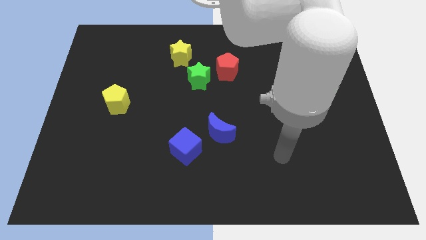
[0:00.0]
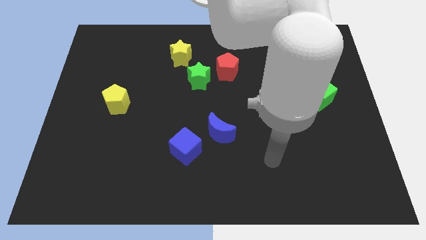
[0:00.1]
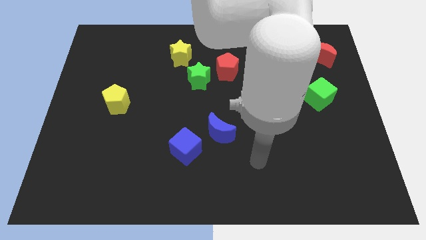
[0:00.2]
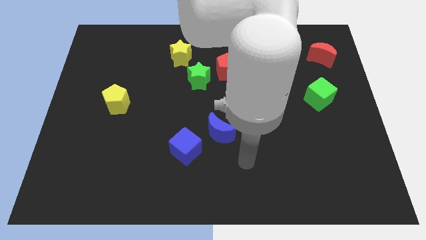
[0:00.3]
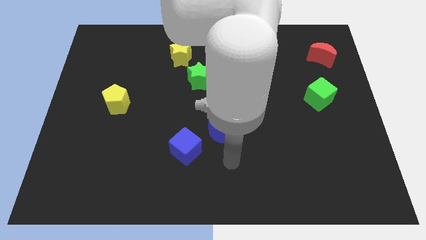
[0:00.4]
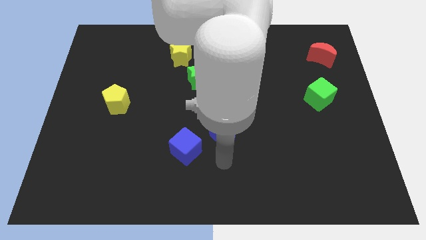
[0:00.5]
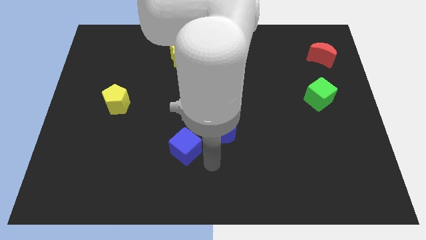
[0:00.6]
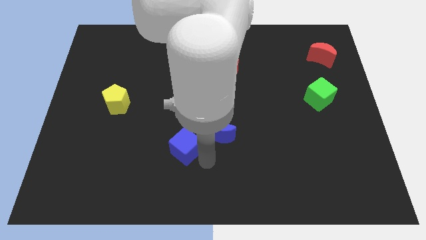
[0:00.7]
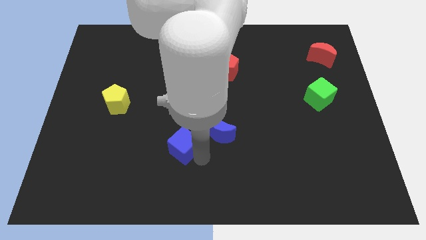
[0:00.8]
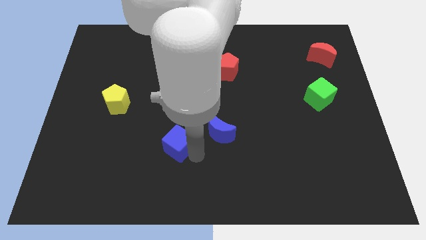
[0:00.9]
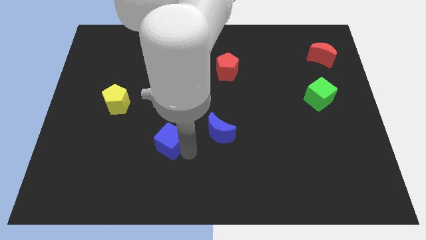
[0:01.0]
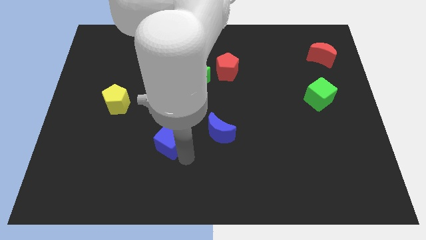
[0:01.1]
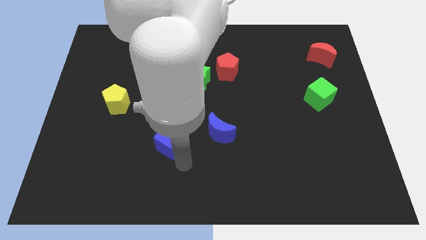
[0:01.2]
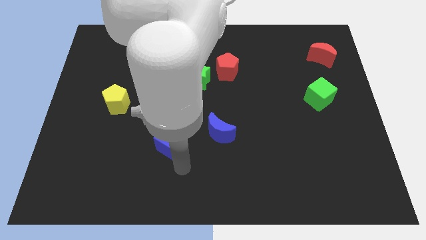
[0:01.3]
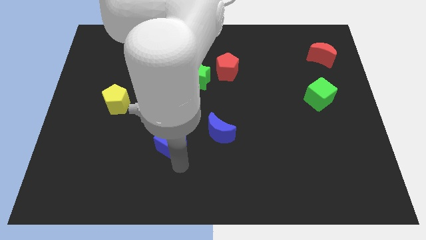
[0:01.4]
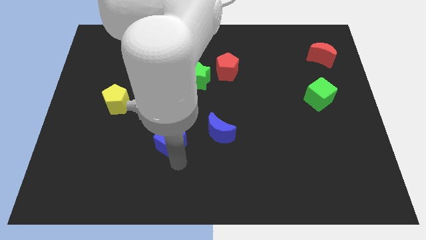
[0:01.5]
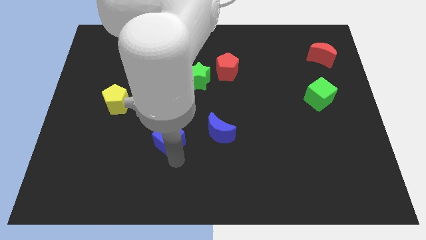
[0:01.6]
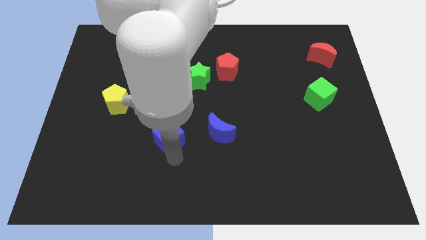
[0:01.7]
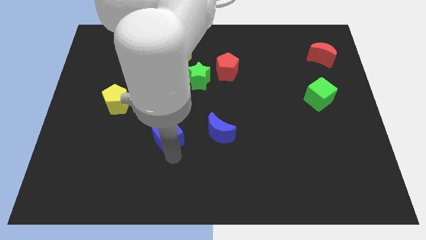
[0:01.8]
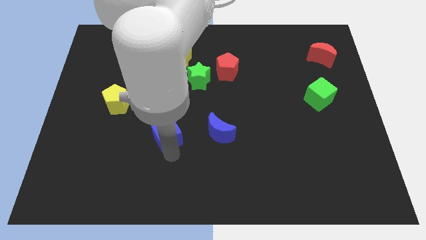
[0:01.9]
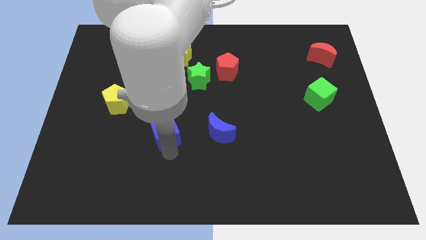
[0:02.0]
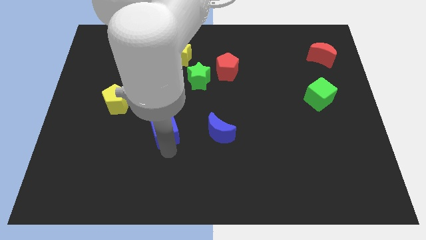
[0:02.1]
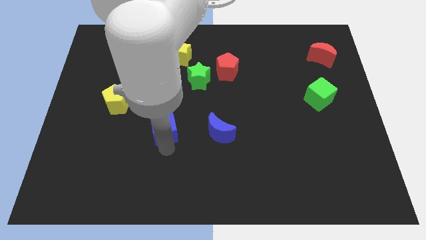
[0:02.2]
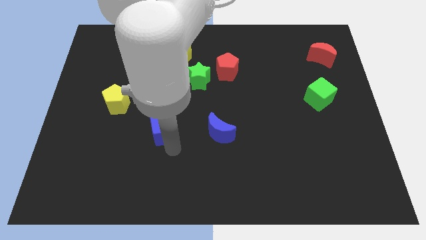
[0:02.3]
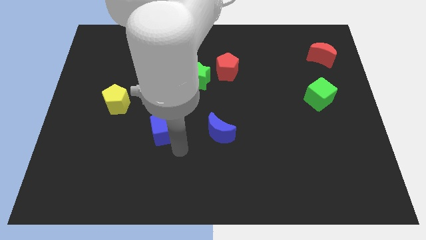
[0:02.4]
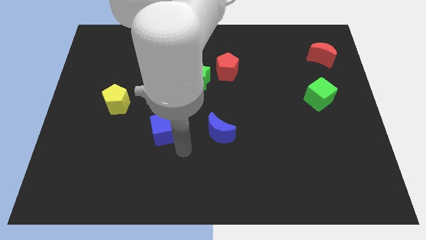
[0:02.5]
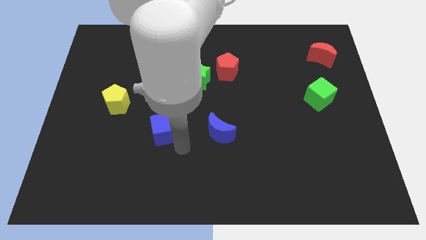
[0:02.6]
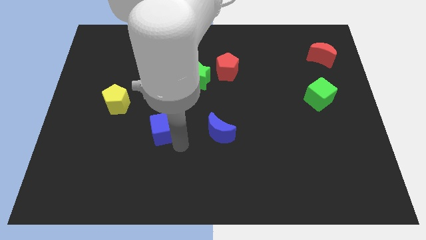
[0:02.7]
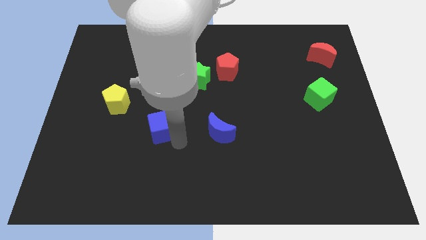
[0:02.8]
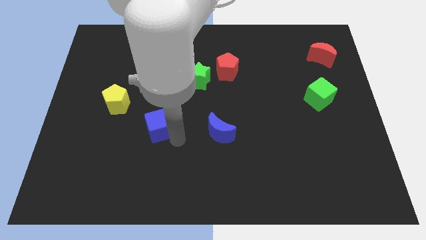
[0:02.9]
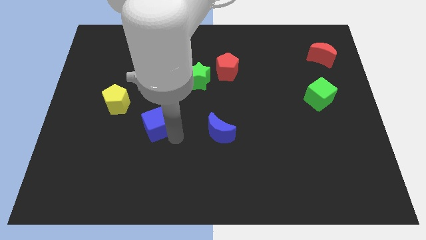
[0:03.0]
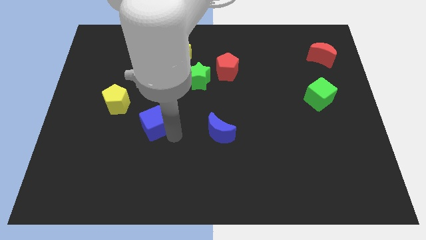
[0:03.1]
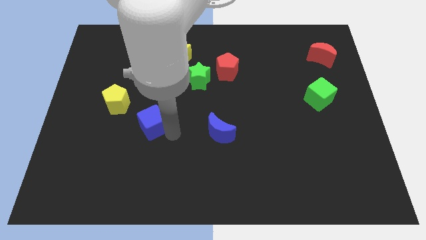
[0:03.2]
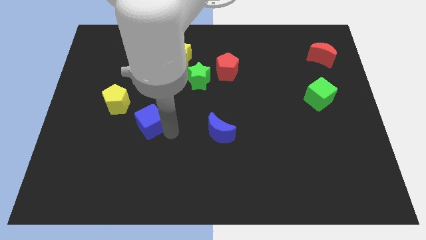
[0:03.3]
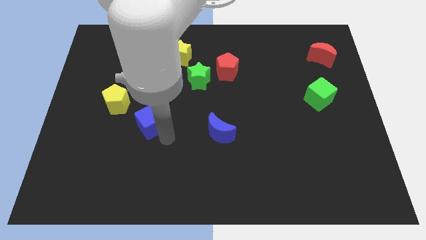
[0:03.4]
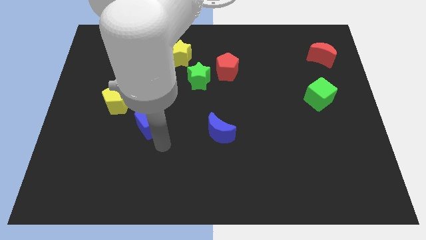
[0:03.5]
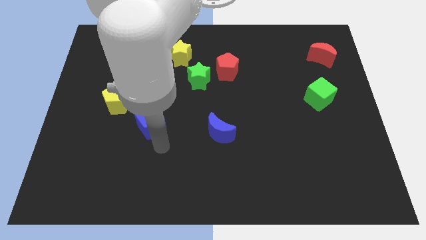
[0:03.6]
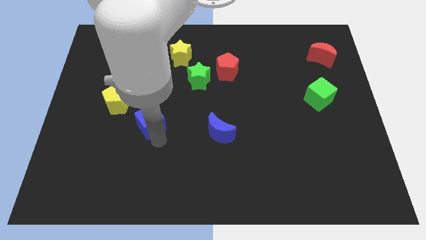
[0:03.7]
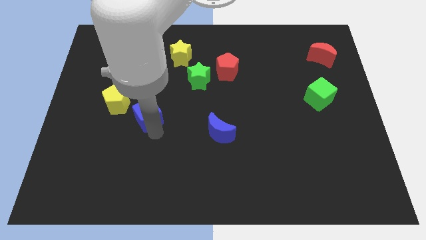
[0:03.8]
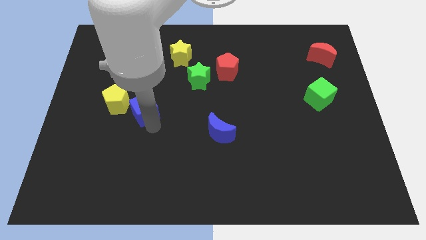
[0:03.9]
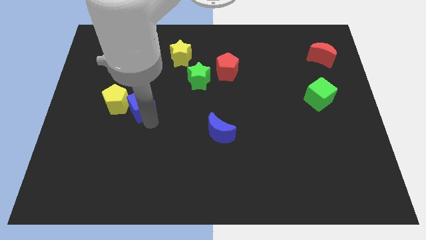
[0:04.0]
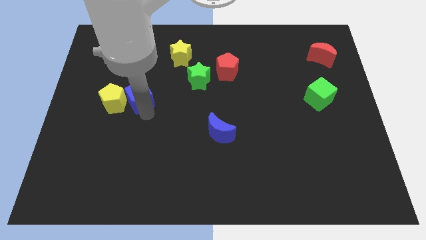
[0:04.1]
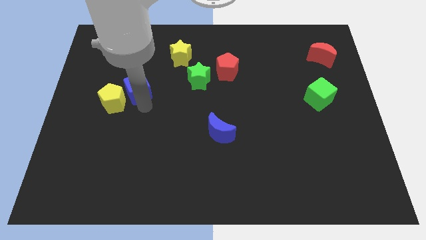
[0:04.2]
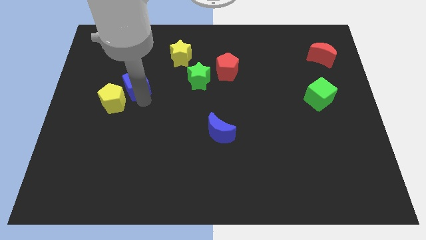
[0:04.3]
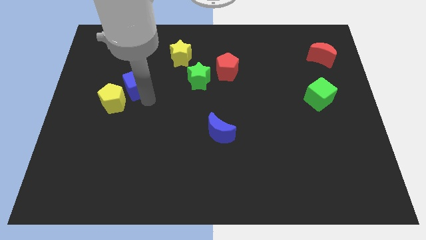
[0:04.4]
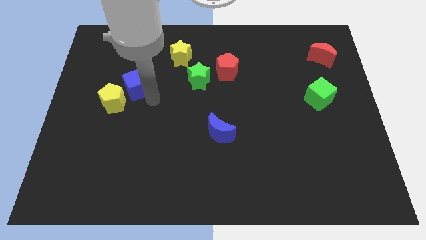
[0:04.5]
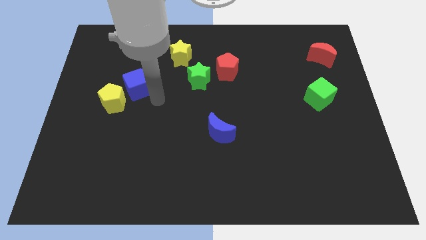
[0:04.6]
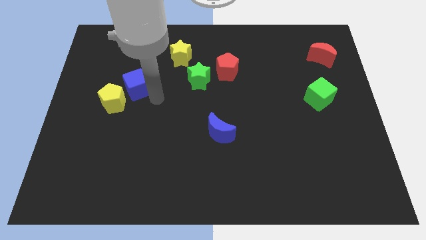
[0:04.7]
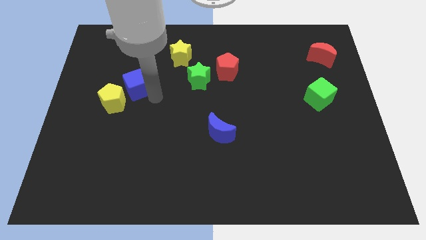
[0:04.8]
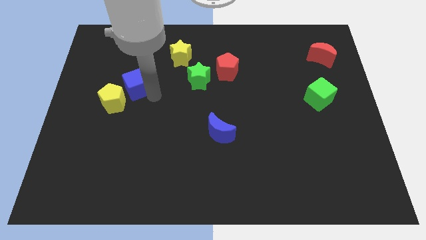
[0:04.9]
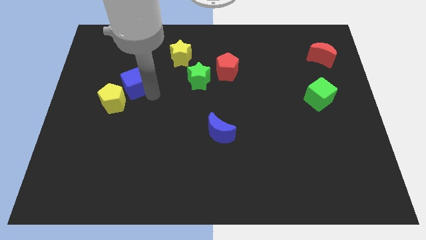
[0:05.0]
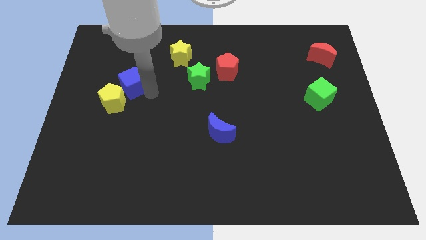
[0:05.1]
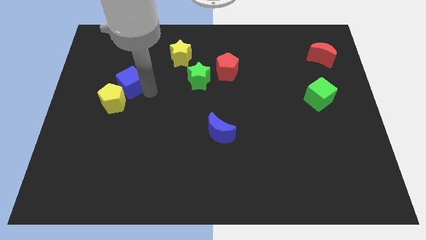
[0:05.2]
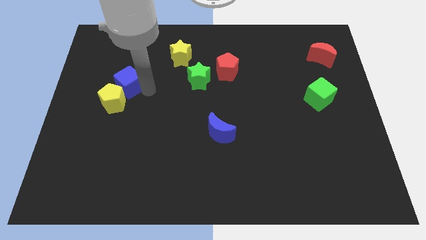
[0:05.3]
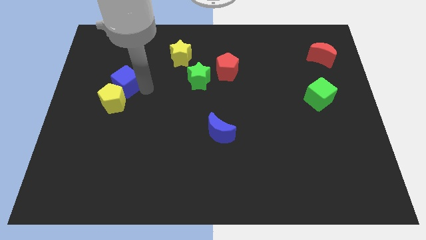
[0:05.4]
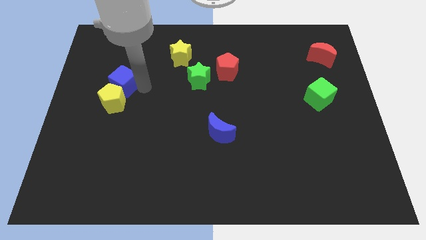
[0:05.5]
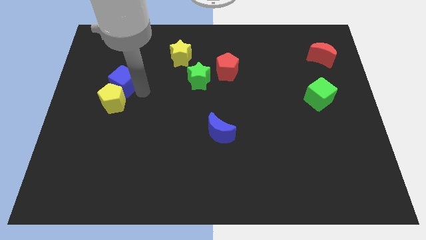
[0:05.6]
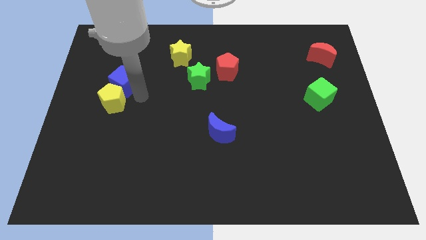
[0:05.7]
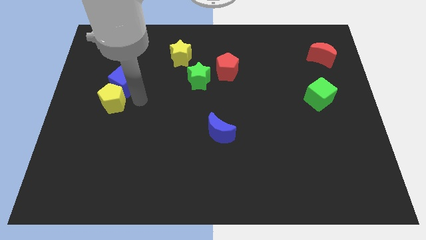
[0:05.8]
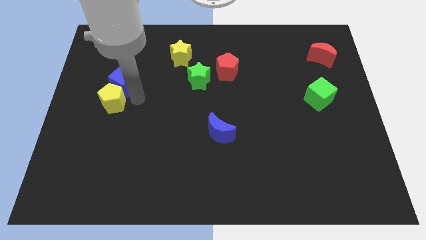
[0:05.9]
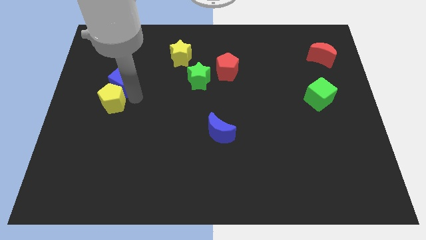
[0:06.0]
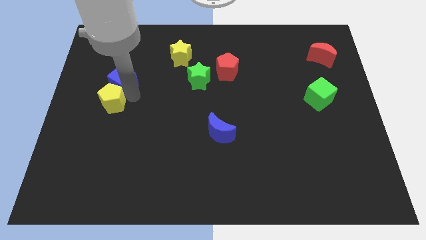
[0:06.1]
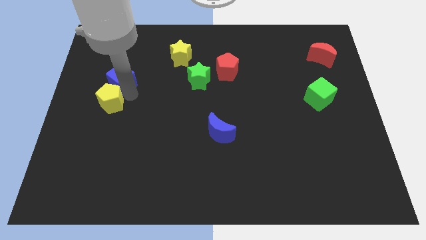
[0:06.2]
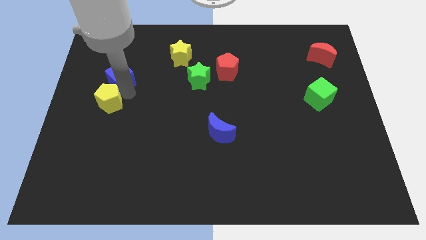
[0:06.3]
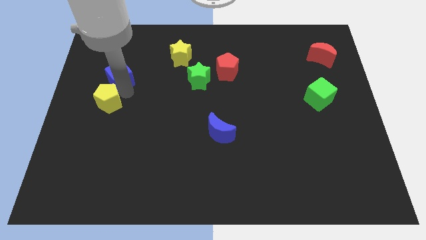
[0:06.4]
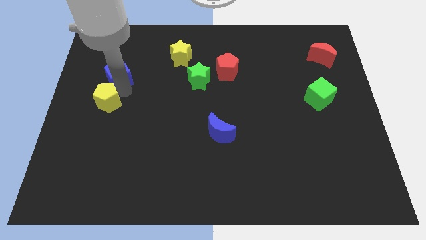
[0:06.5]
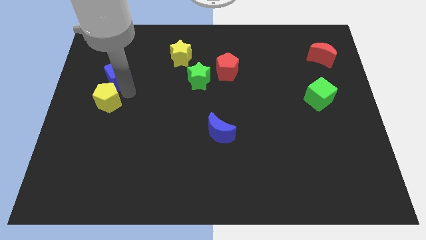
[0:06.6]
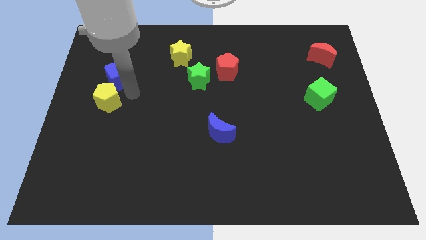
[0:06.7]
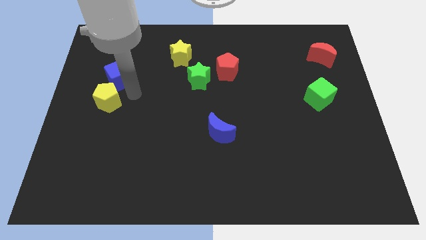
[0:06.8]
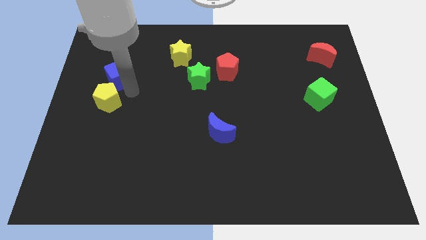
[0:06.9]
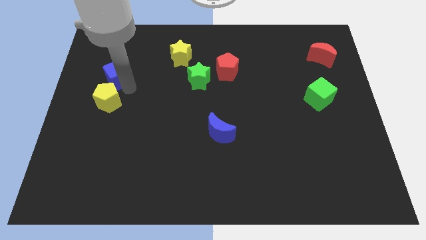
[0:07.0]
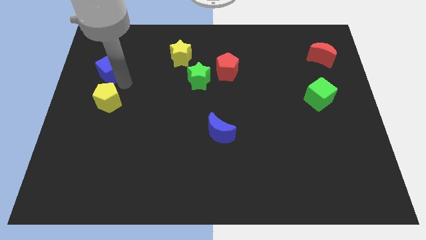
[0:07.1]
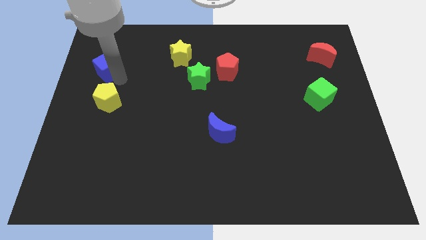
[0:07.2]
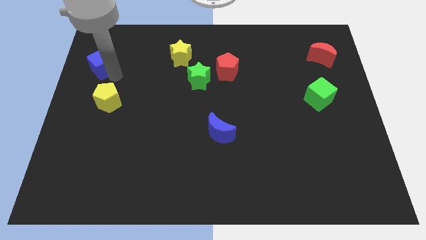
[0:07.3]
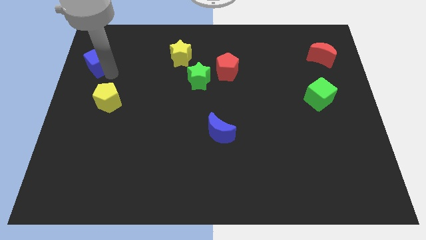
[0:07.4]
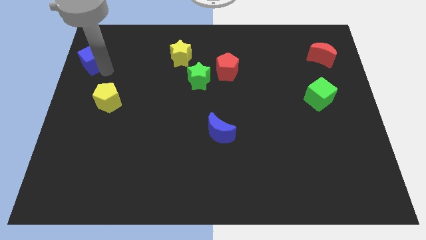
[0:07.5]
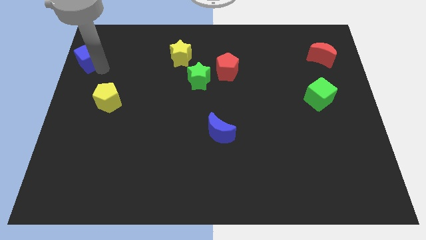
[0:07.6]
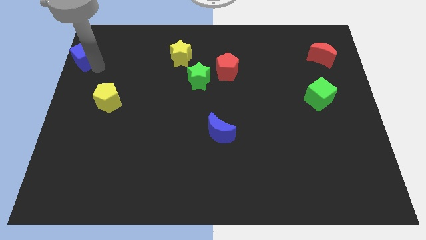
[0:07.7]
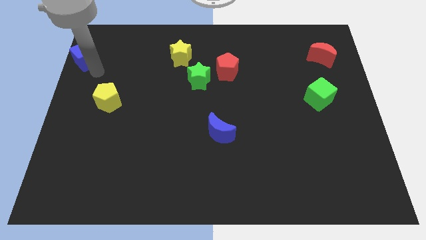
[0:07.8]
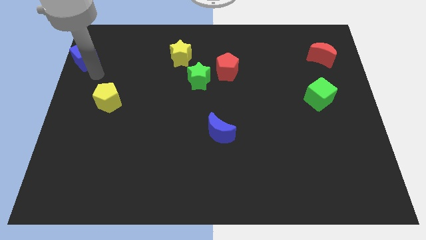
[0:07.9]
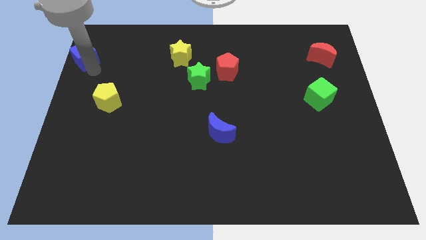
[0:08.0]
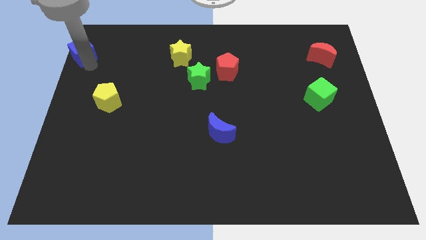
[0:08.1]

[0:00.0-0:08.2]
slide the blue cube to the upper left corner
